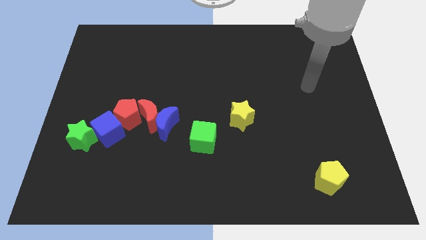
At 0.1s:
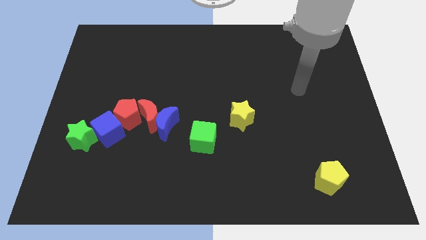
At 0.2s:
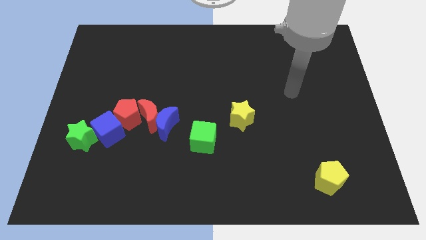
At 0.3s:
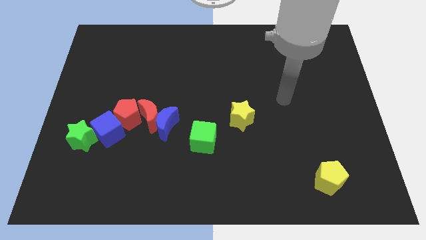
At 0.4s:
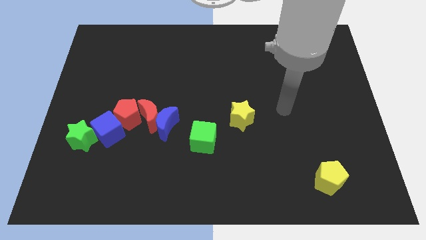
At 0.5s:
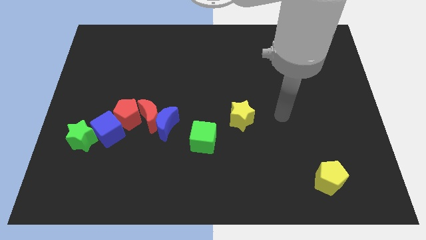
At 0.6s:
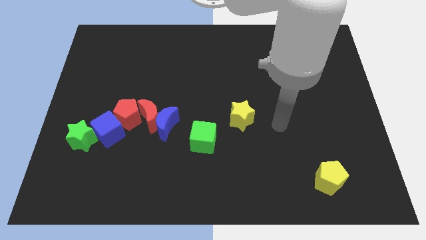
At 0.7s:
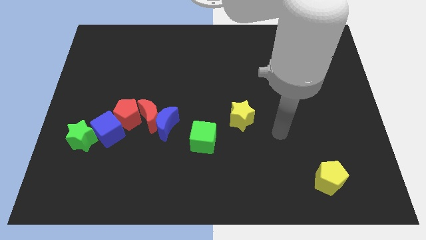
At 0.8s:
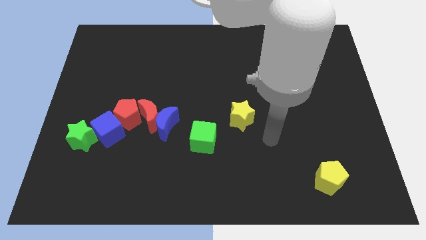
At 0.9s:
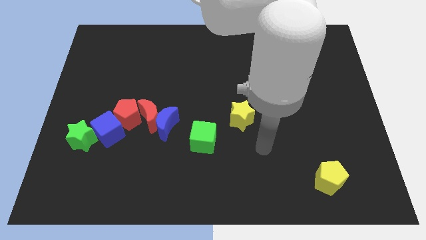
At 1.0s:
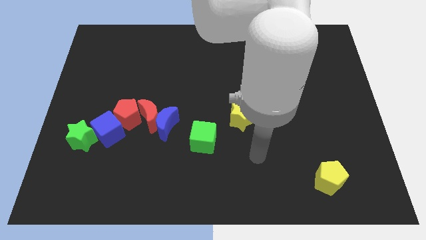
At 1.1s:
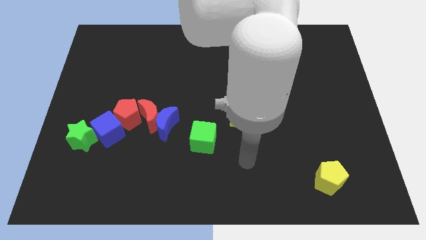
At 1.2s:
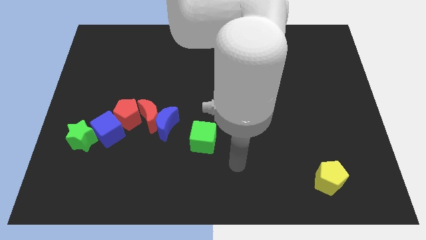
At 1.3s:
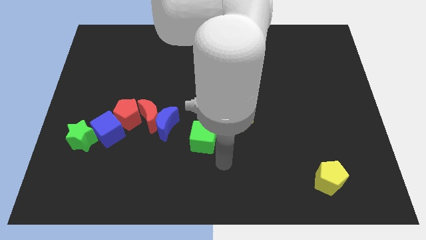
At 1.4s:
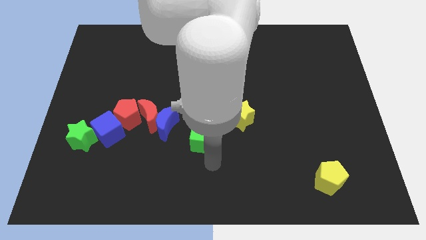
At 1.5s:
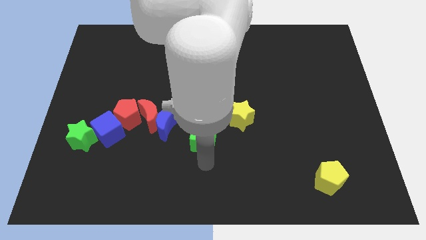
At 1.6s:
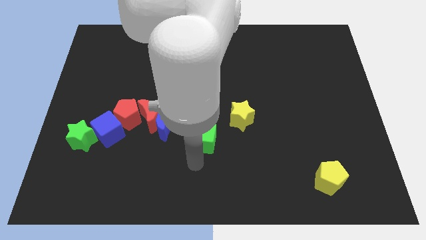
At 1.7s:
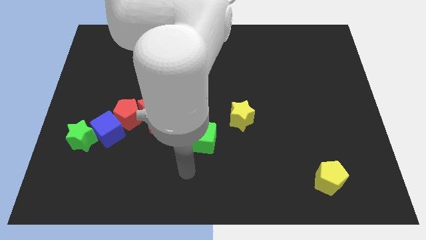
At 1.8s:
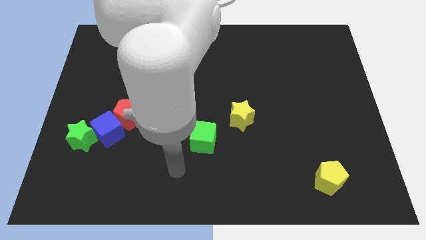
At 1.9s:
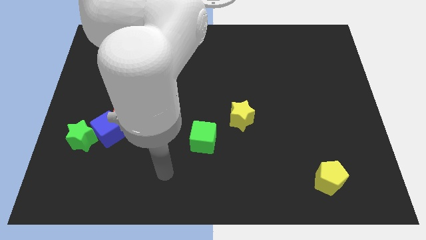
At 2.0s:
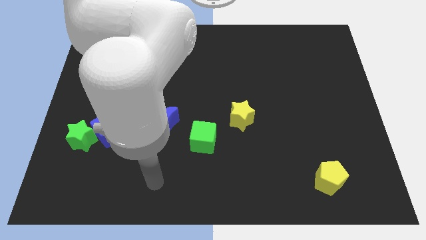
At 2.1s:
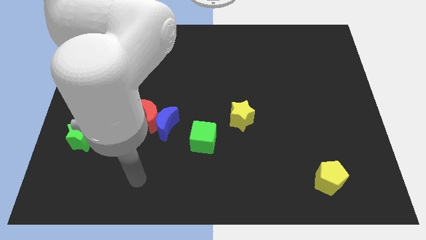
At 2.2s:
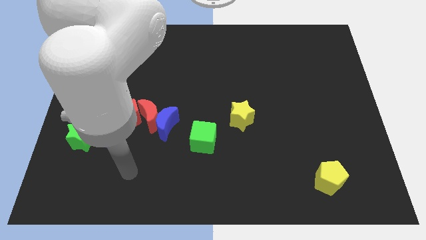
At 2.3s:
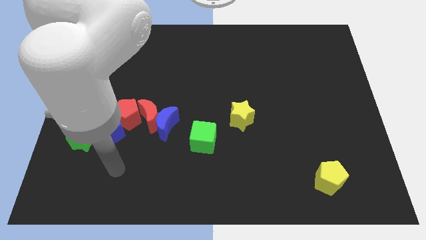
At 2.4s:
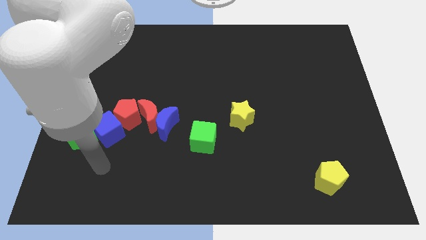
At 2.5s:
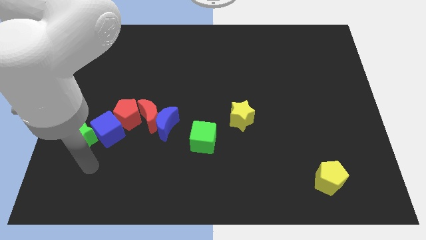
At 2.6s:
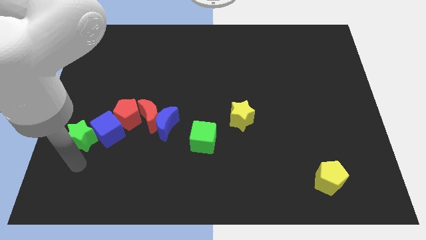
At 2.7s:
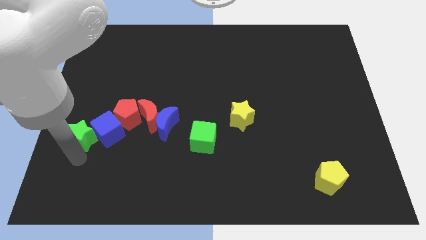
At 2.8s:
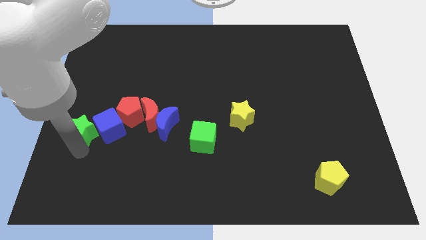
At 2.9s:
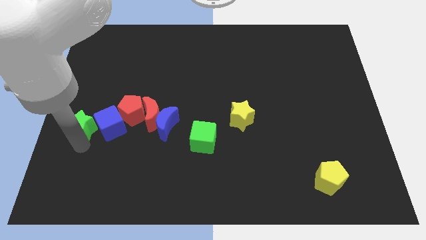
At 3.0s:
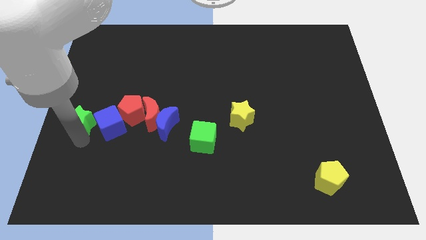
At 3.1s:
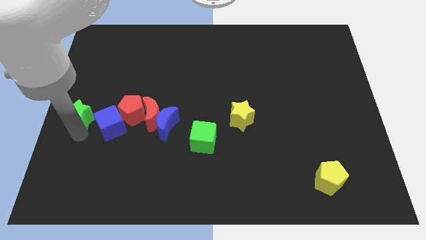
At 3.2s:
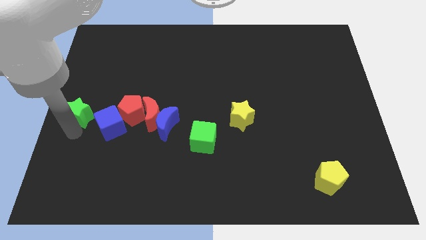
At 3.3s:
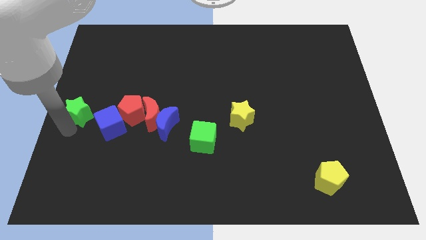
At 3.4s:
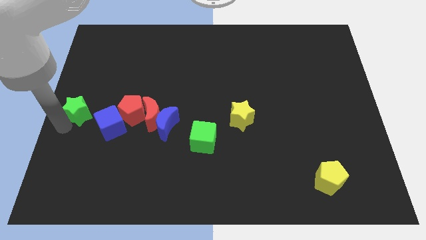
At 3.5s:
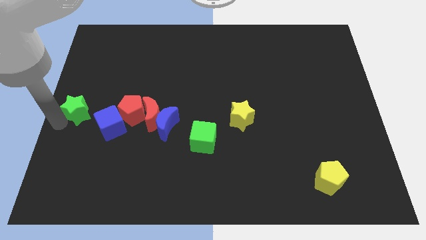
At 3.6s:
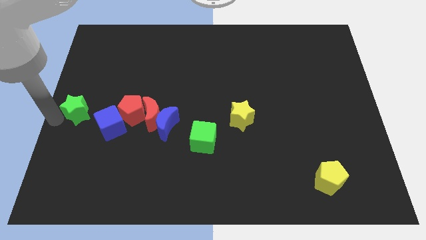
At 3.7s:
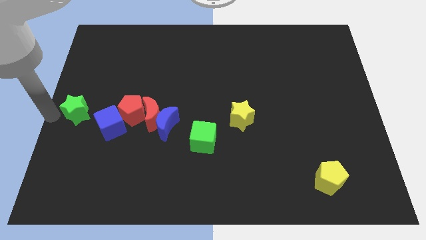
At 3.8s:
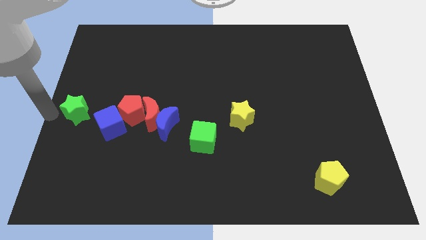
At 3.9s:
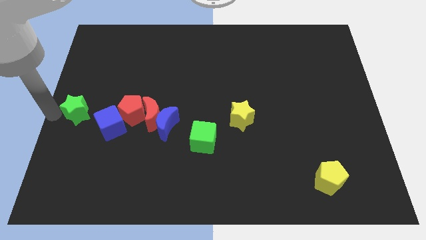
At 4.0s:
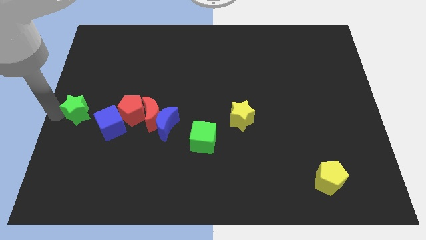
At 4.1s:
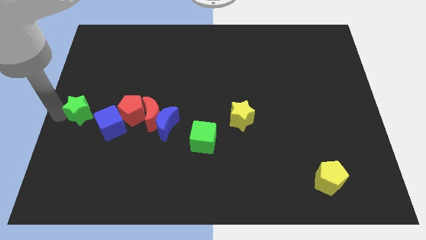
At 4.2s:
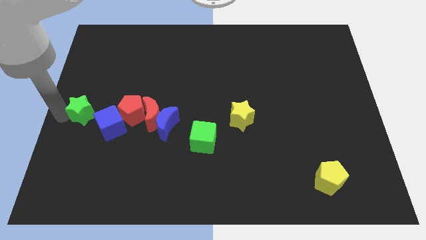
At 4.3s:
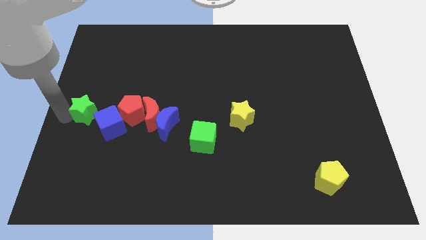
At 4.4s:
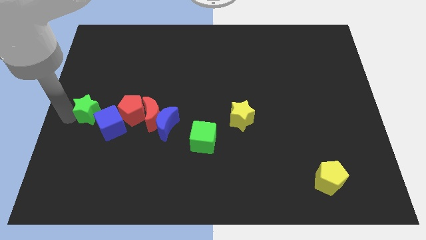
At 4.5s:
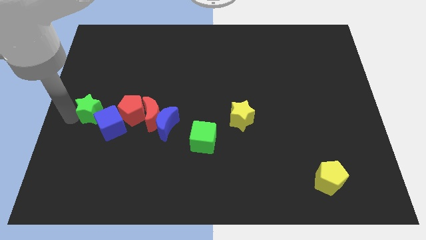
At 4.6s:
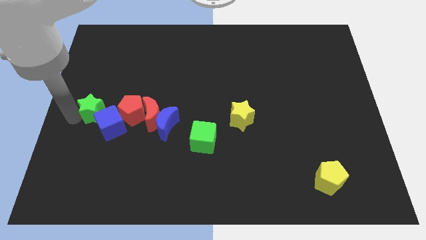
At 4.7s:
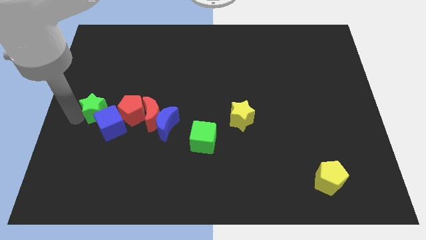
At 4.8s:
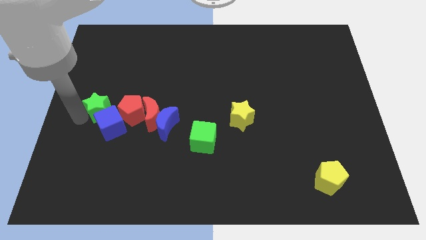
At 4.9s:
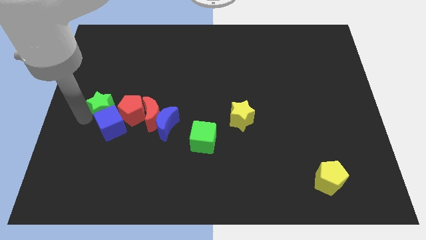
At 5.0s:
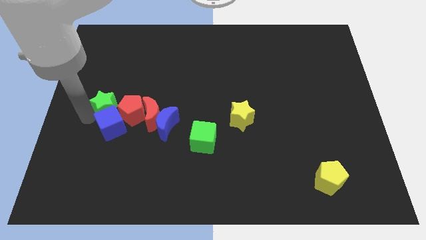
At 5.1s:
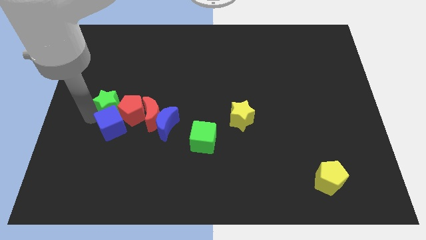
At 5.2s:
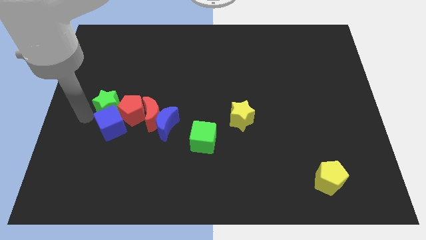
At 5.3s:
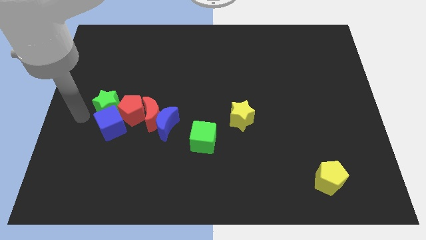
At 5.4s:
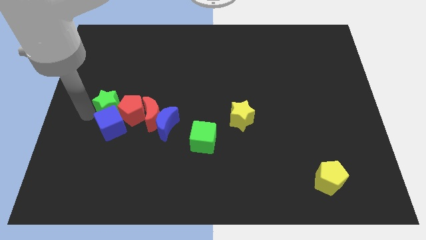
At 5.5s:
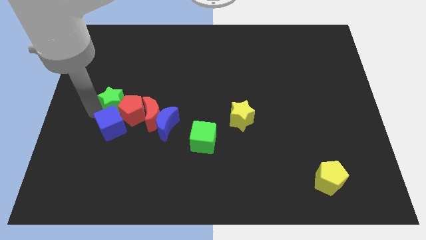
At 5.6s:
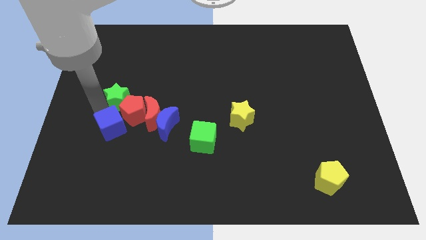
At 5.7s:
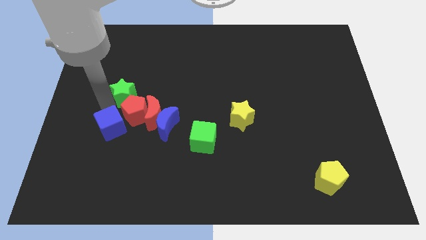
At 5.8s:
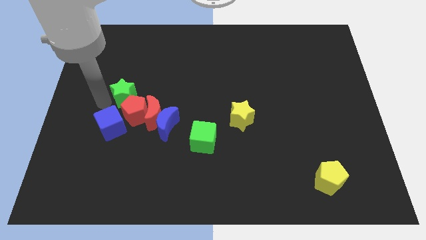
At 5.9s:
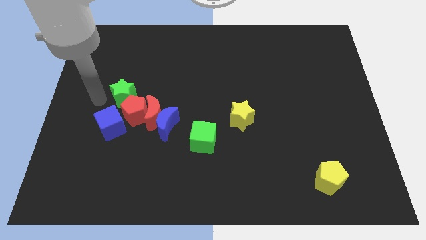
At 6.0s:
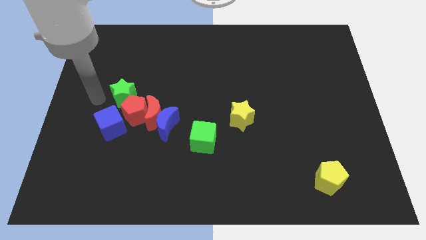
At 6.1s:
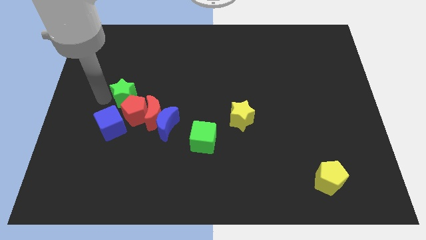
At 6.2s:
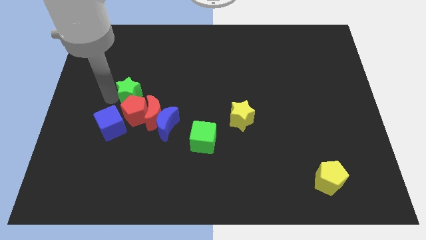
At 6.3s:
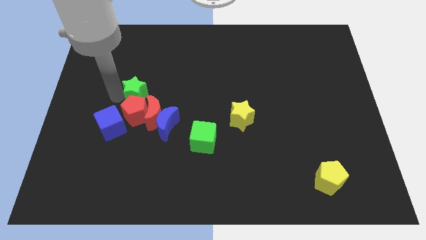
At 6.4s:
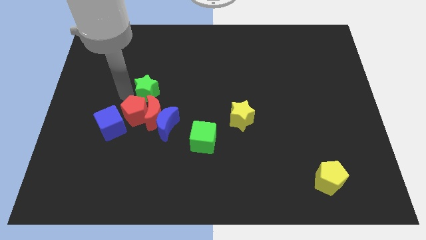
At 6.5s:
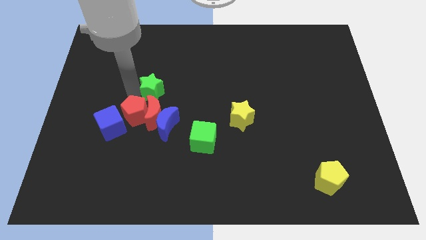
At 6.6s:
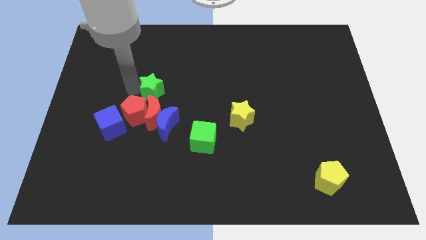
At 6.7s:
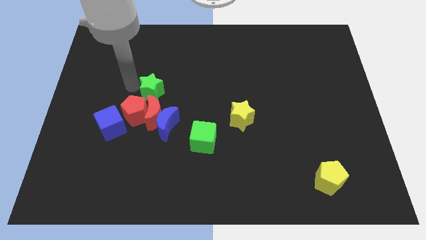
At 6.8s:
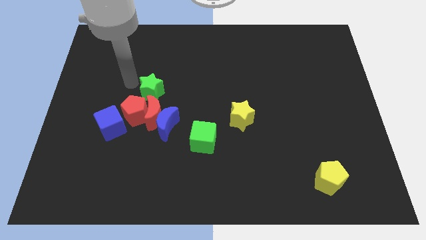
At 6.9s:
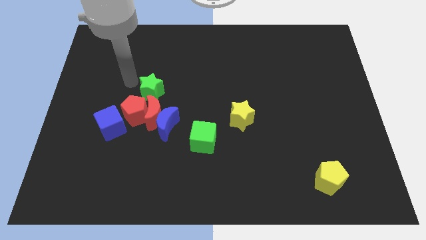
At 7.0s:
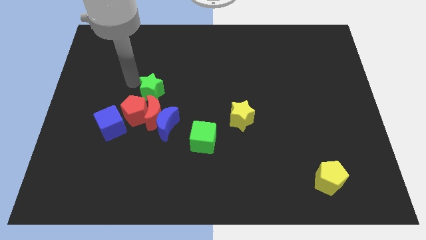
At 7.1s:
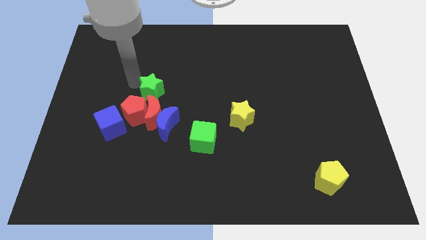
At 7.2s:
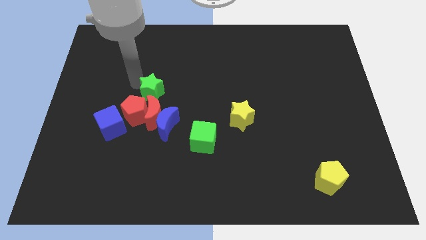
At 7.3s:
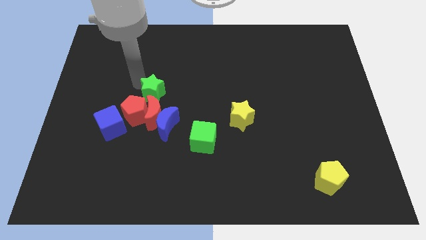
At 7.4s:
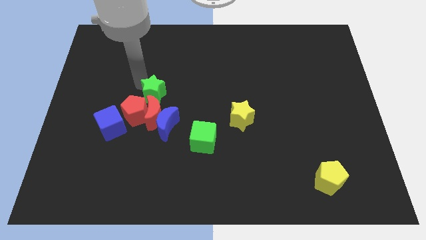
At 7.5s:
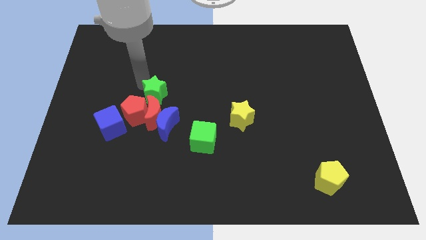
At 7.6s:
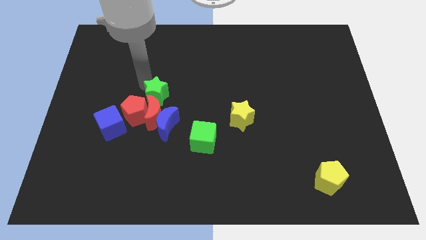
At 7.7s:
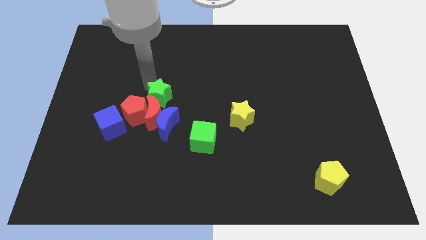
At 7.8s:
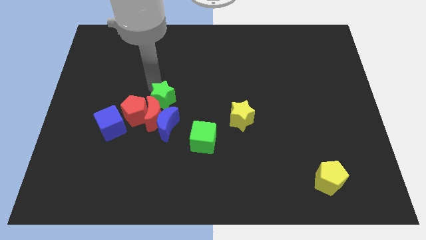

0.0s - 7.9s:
slide the green star to the center
